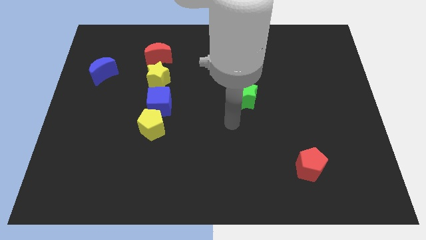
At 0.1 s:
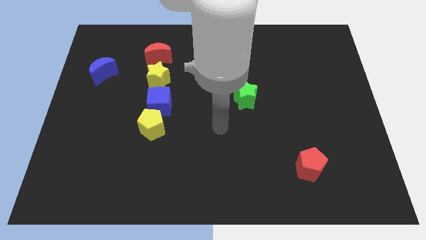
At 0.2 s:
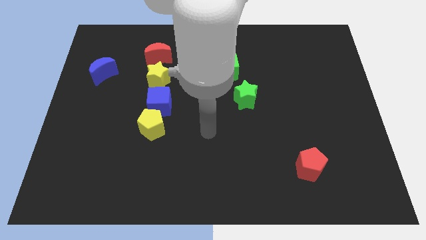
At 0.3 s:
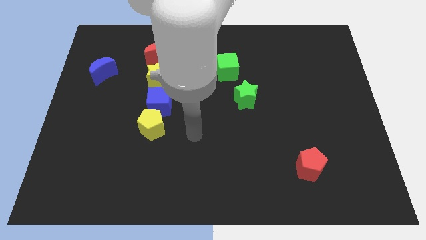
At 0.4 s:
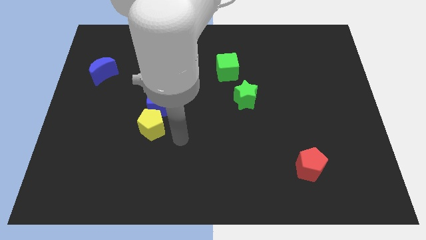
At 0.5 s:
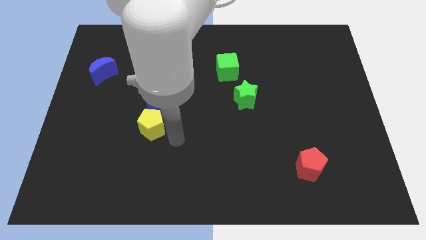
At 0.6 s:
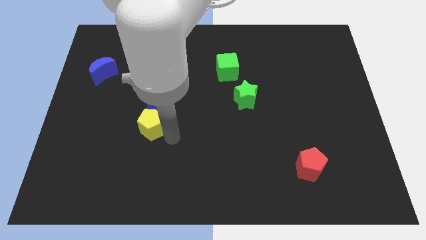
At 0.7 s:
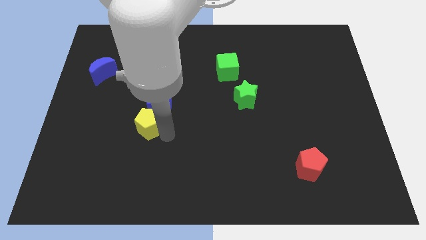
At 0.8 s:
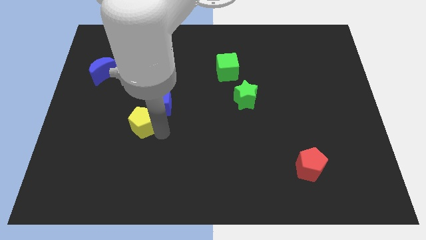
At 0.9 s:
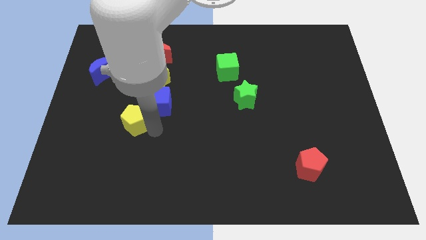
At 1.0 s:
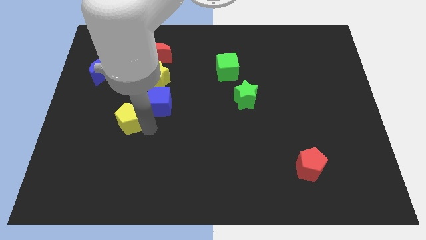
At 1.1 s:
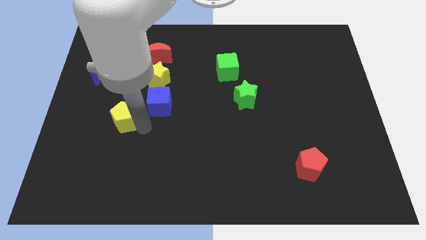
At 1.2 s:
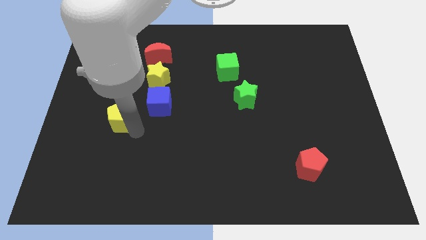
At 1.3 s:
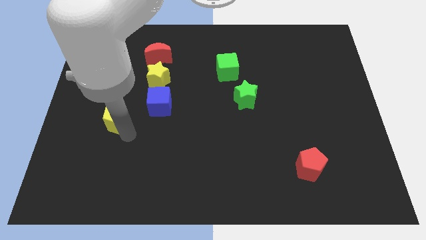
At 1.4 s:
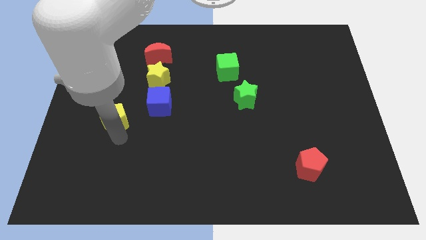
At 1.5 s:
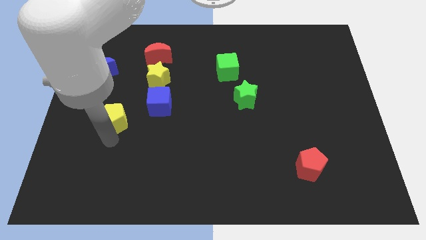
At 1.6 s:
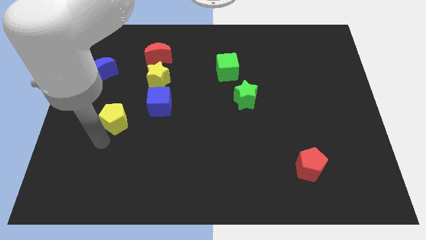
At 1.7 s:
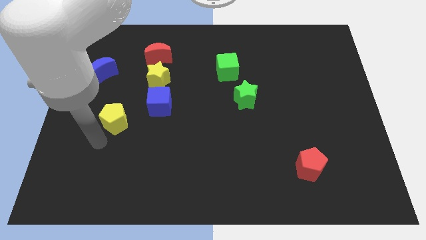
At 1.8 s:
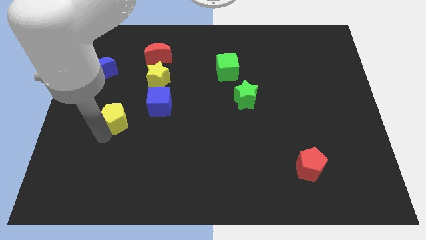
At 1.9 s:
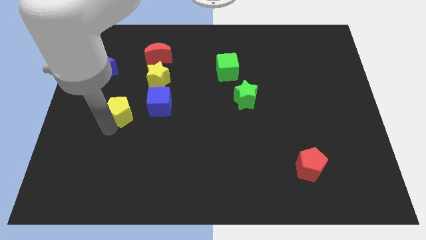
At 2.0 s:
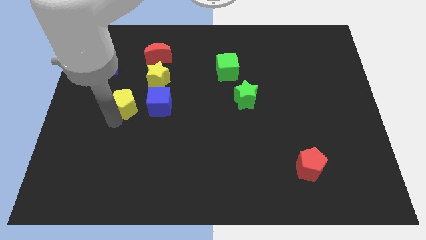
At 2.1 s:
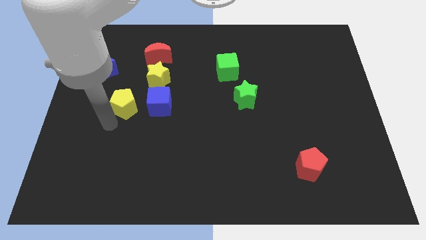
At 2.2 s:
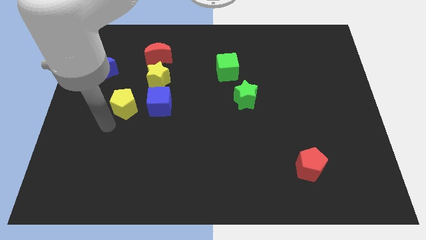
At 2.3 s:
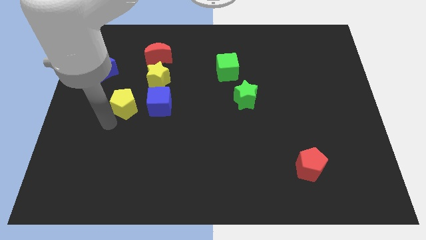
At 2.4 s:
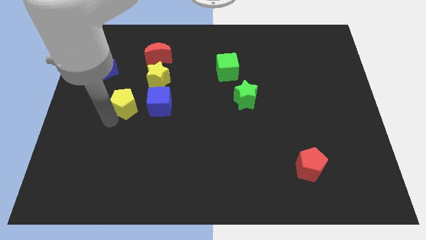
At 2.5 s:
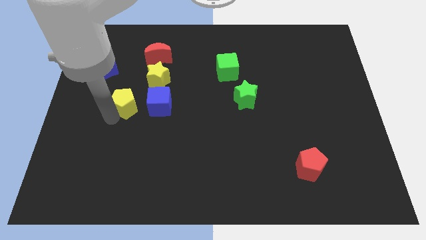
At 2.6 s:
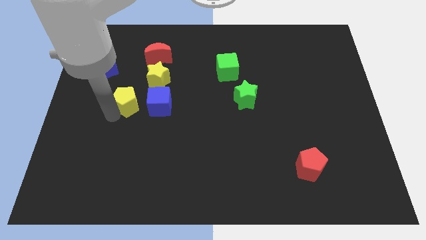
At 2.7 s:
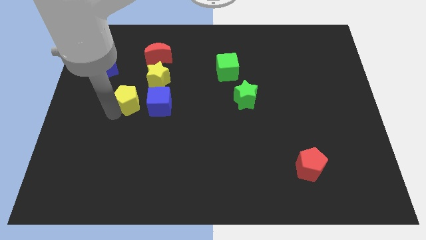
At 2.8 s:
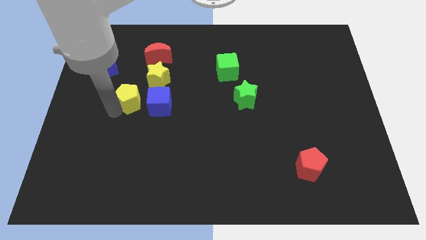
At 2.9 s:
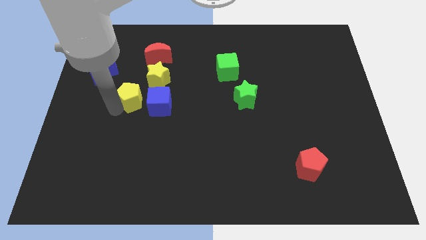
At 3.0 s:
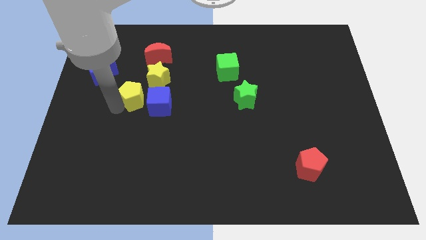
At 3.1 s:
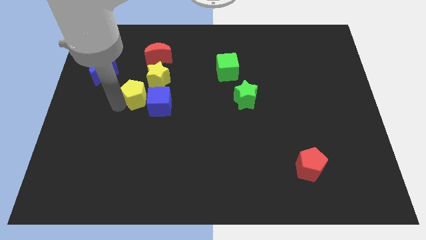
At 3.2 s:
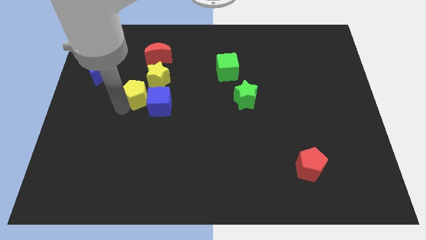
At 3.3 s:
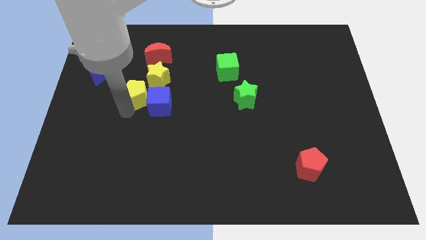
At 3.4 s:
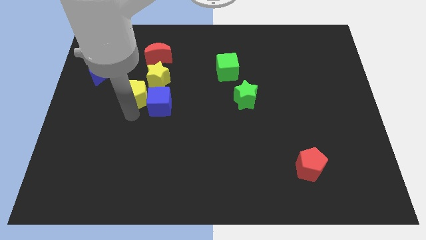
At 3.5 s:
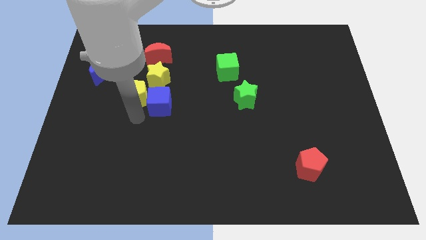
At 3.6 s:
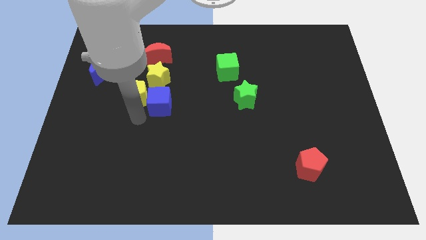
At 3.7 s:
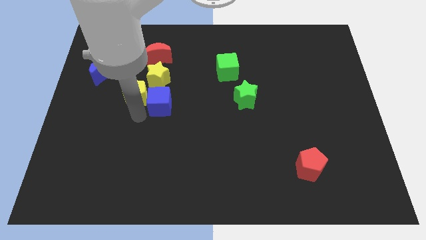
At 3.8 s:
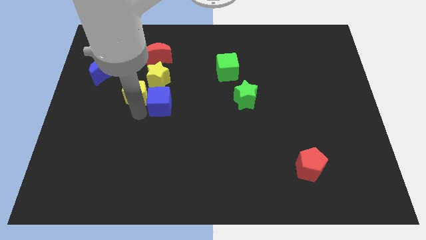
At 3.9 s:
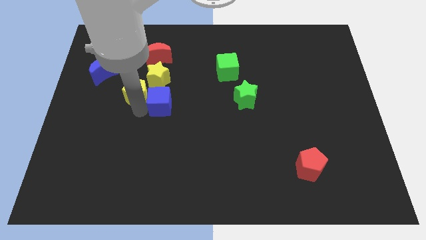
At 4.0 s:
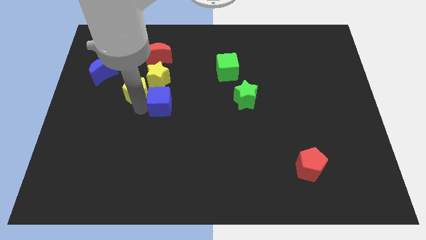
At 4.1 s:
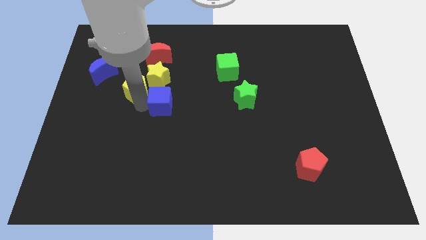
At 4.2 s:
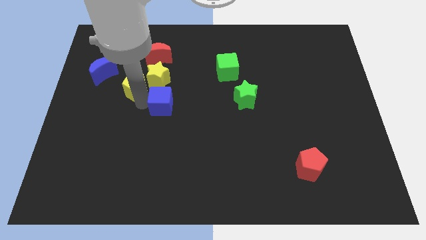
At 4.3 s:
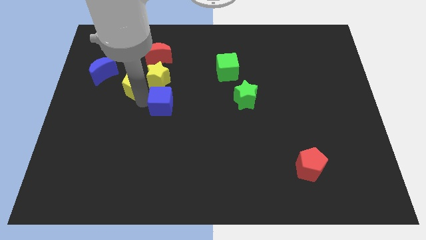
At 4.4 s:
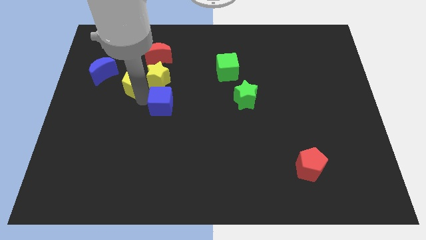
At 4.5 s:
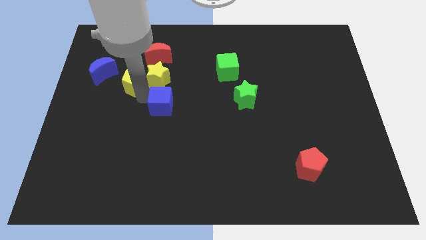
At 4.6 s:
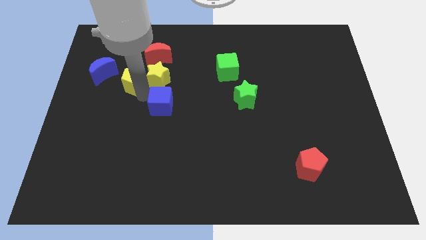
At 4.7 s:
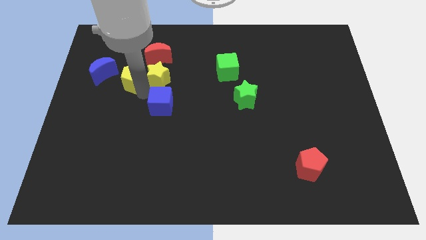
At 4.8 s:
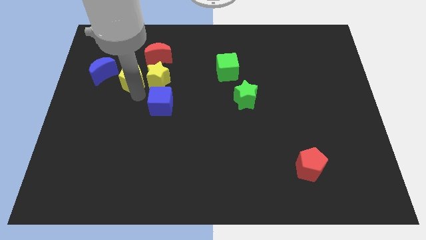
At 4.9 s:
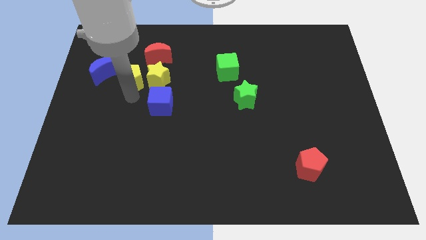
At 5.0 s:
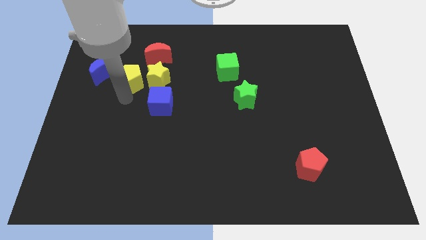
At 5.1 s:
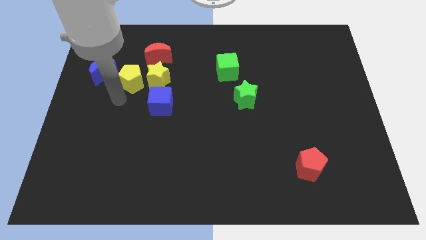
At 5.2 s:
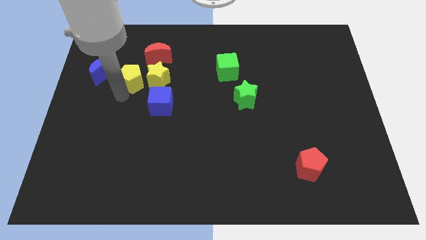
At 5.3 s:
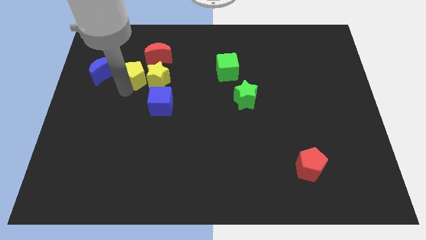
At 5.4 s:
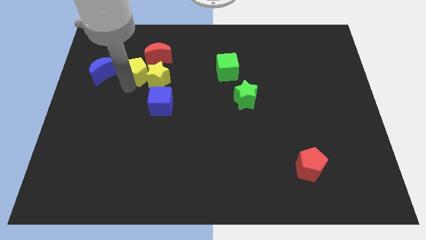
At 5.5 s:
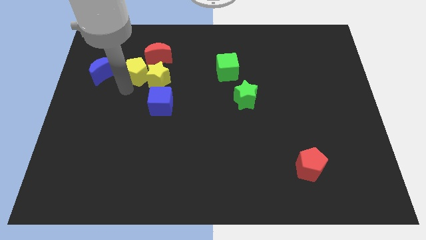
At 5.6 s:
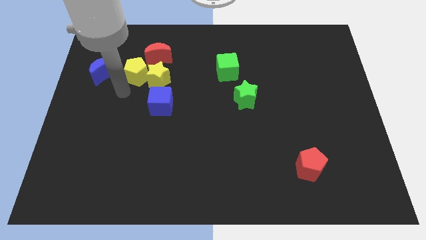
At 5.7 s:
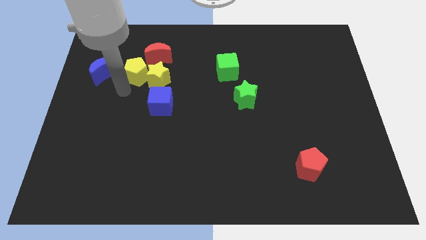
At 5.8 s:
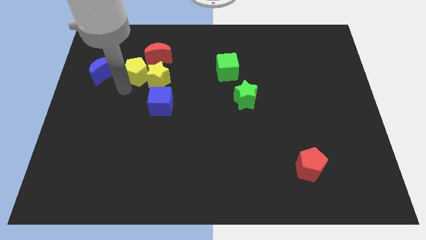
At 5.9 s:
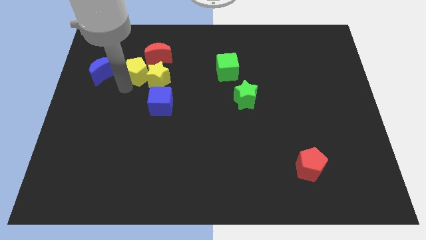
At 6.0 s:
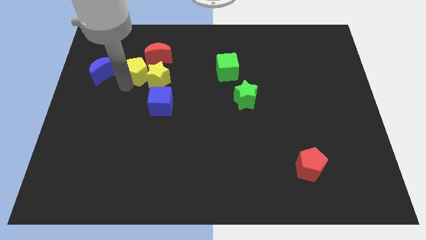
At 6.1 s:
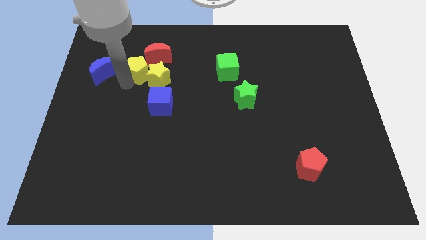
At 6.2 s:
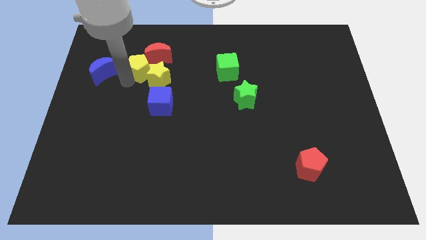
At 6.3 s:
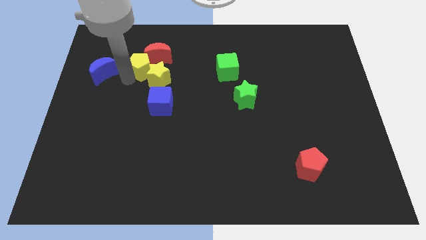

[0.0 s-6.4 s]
push the yellow pentagon close to the red moon

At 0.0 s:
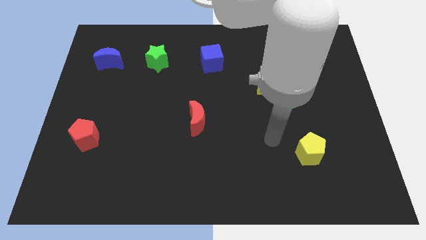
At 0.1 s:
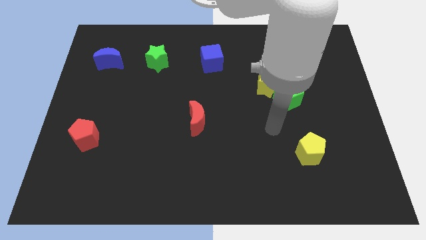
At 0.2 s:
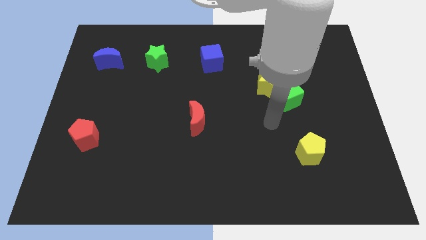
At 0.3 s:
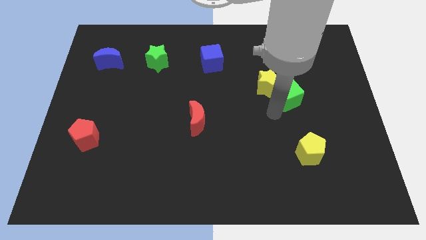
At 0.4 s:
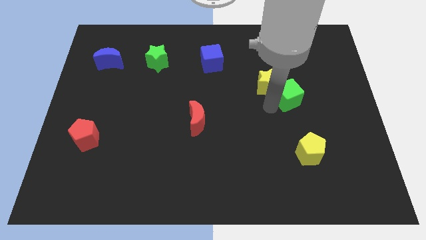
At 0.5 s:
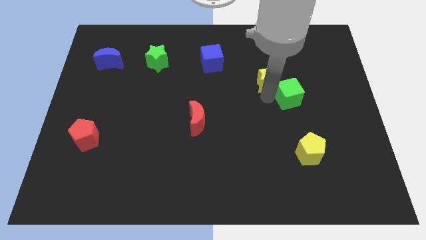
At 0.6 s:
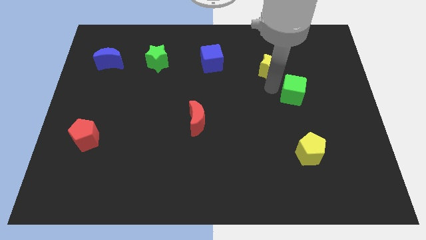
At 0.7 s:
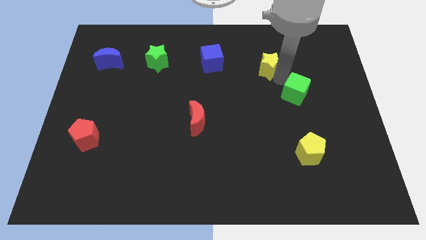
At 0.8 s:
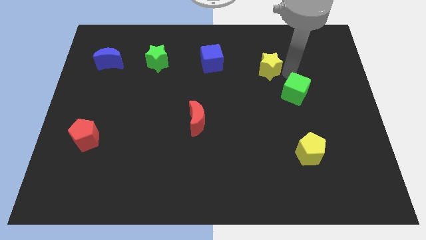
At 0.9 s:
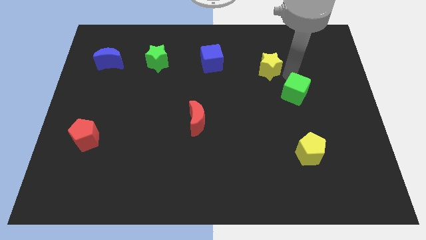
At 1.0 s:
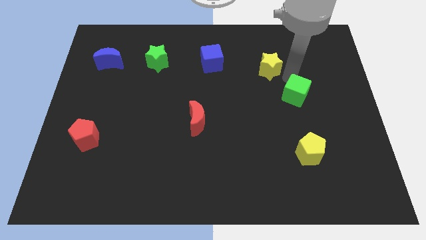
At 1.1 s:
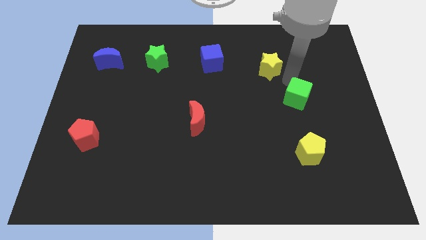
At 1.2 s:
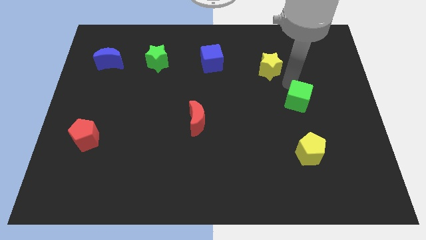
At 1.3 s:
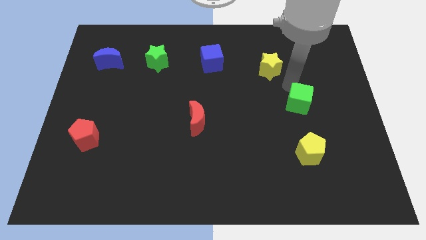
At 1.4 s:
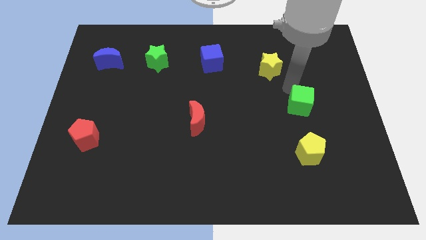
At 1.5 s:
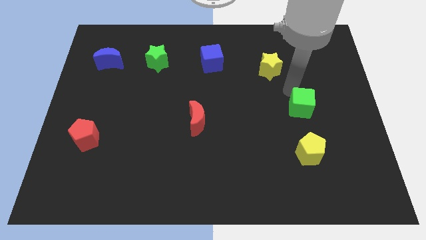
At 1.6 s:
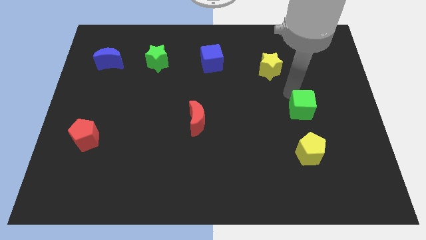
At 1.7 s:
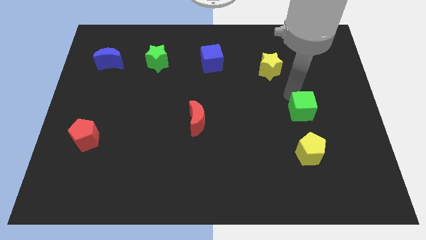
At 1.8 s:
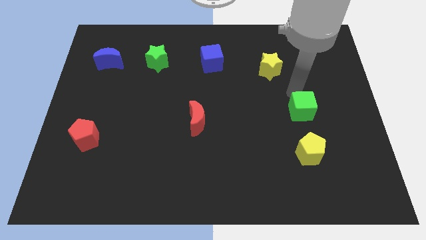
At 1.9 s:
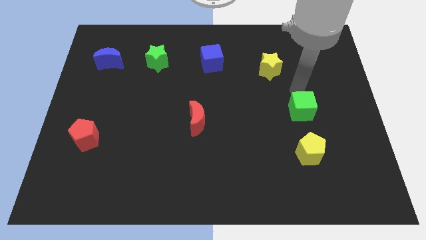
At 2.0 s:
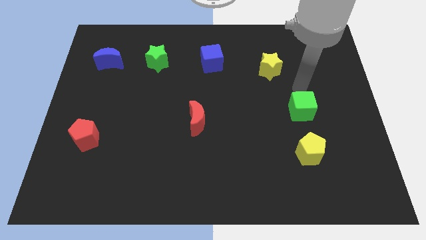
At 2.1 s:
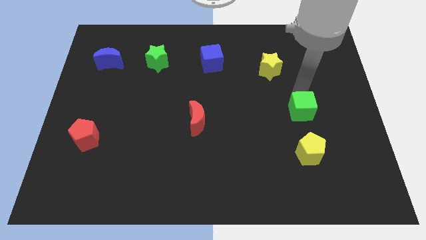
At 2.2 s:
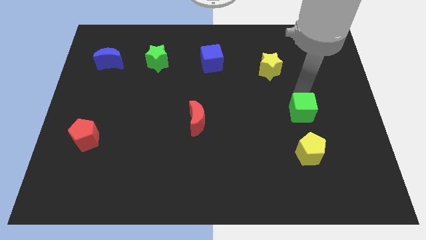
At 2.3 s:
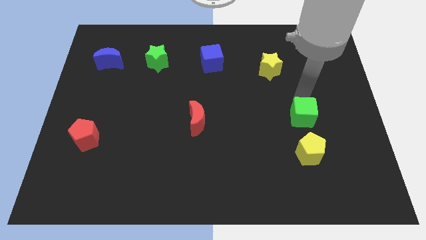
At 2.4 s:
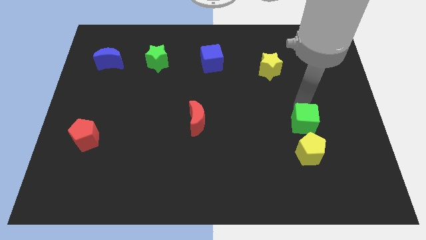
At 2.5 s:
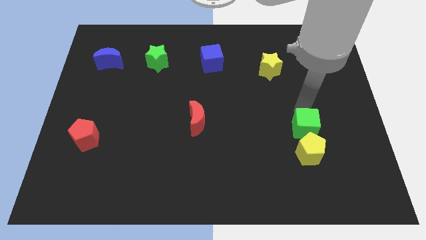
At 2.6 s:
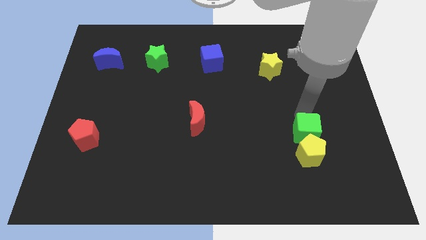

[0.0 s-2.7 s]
put the green cube close to the yellow pentagon
